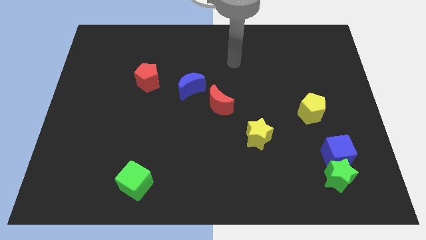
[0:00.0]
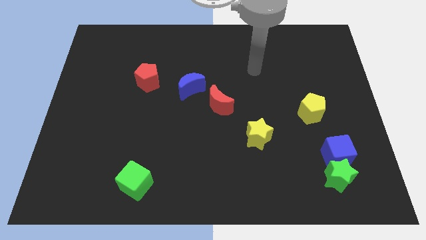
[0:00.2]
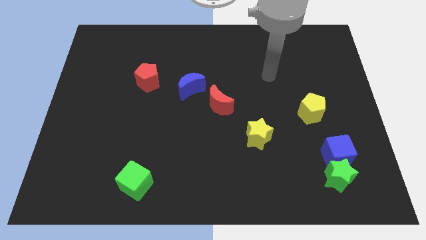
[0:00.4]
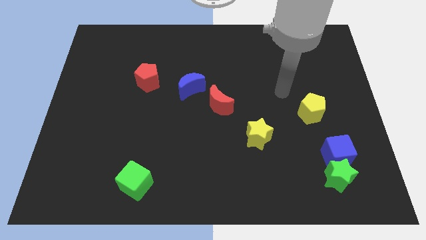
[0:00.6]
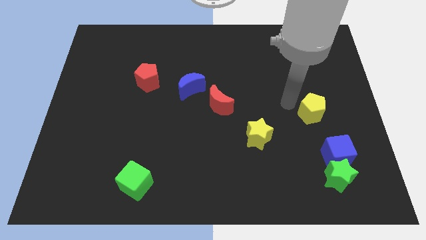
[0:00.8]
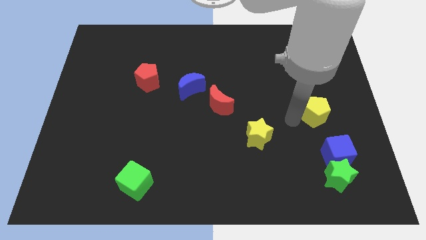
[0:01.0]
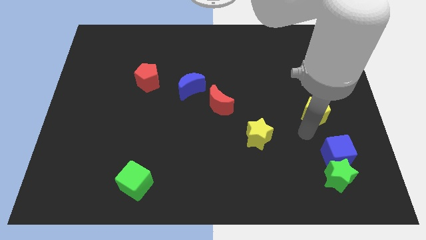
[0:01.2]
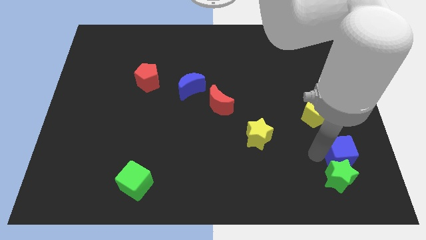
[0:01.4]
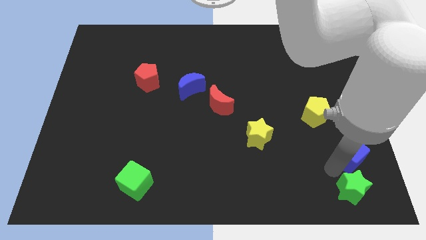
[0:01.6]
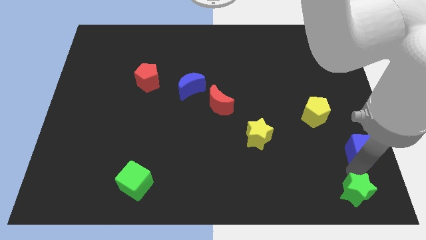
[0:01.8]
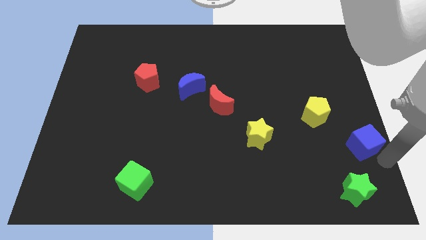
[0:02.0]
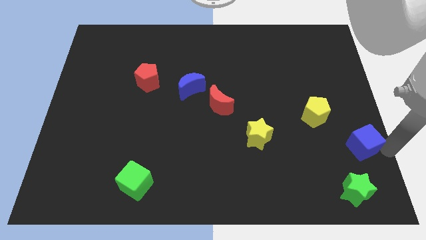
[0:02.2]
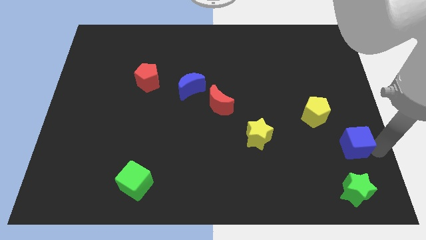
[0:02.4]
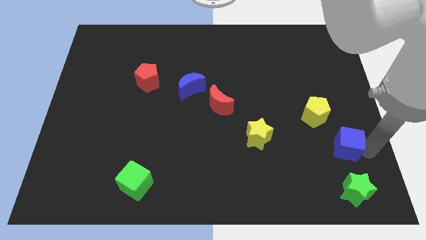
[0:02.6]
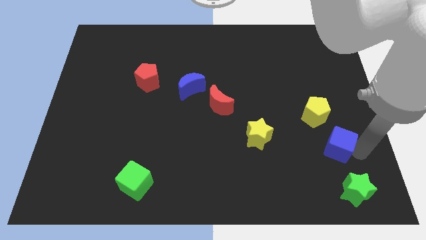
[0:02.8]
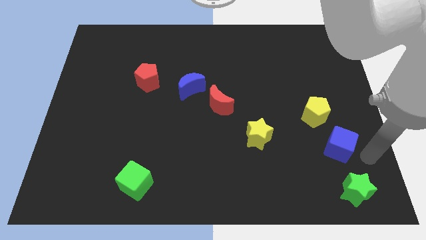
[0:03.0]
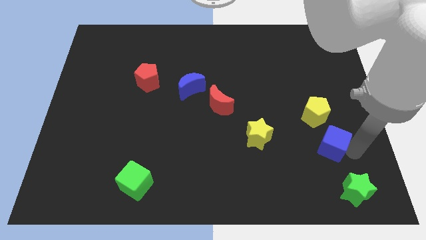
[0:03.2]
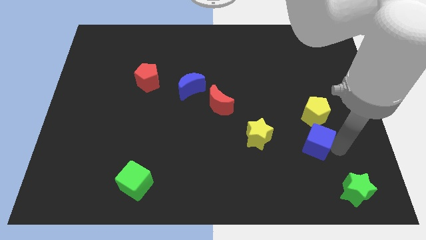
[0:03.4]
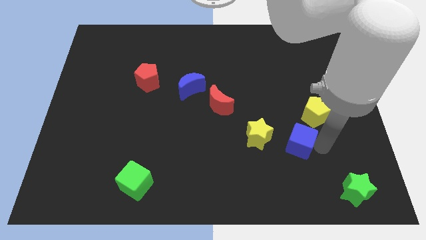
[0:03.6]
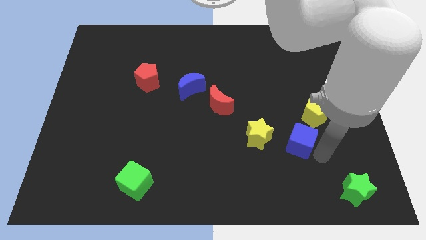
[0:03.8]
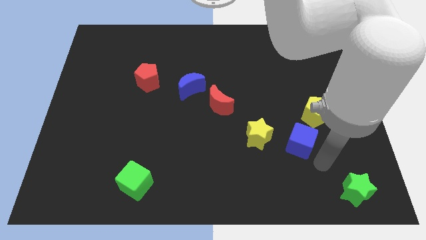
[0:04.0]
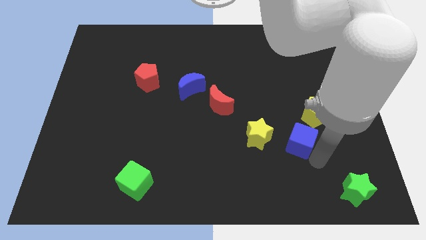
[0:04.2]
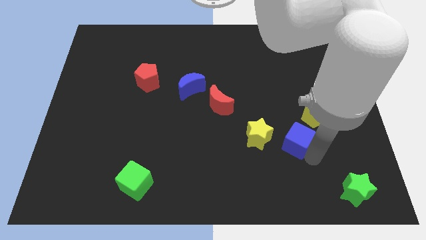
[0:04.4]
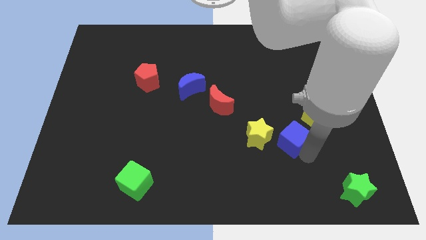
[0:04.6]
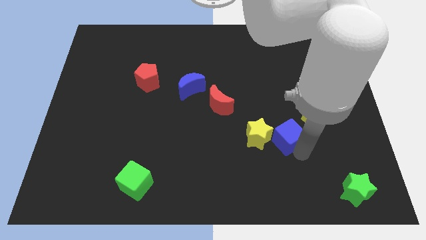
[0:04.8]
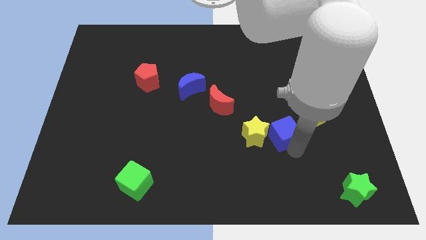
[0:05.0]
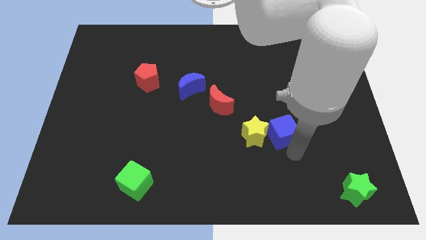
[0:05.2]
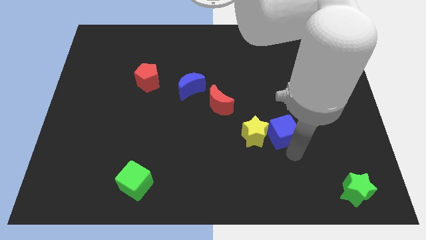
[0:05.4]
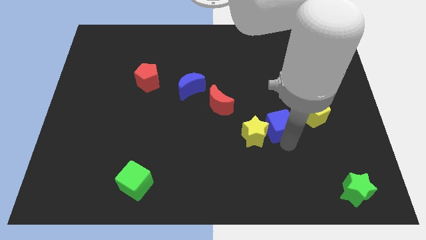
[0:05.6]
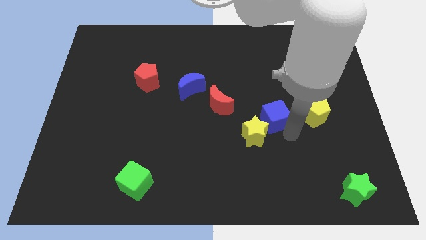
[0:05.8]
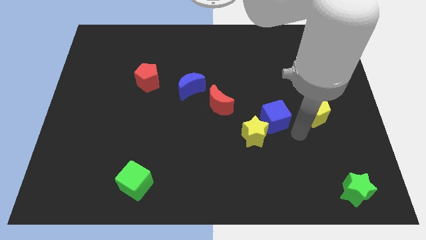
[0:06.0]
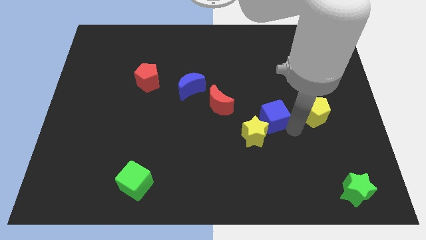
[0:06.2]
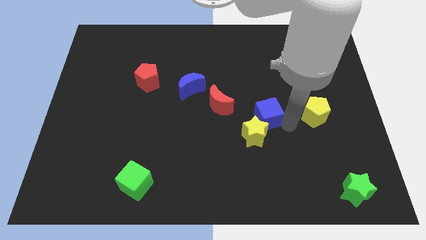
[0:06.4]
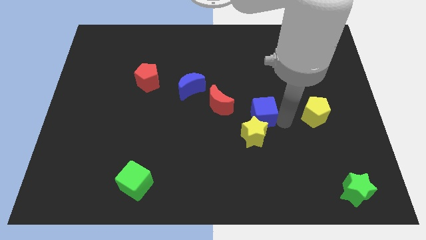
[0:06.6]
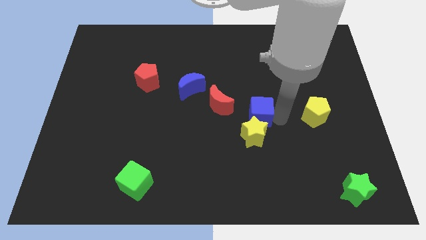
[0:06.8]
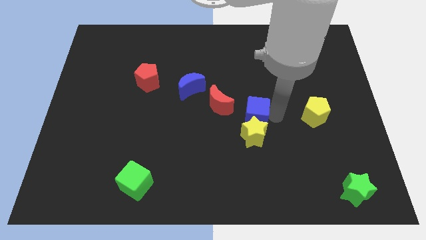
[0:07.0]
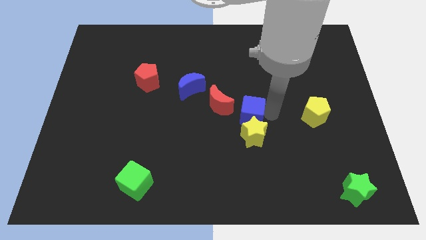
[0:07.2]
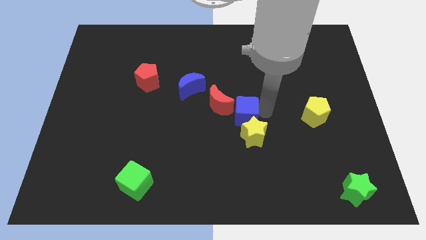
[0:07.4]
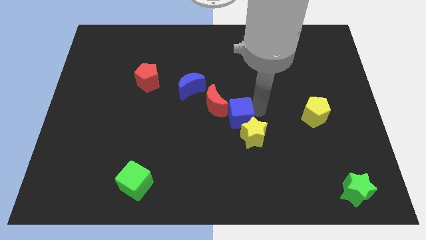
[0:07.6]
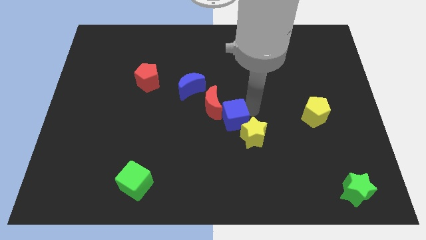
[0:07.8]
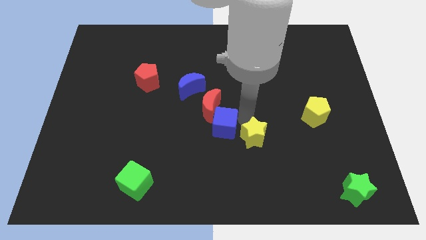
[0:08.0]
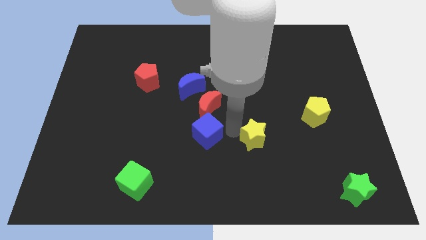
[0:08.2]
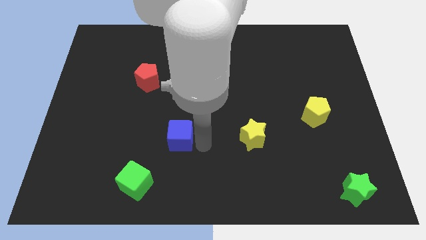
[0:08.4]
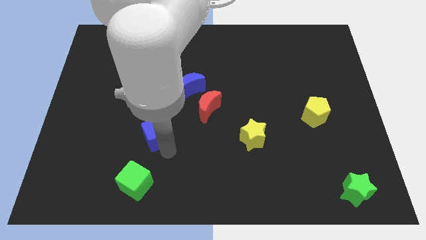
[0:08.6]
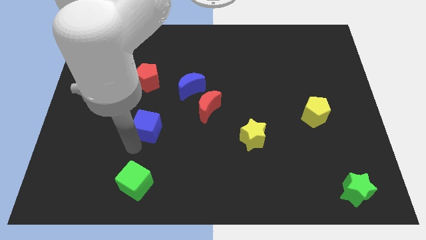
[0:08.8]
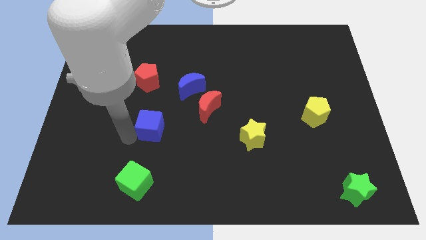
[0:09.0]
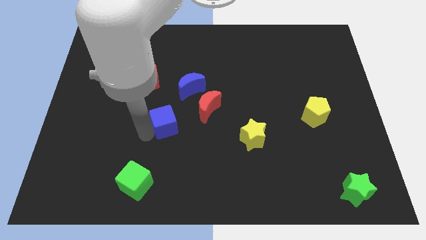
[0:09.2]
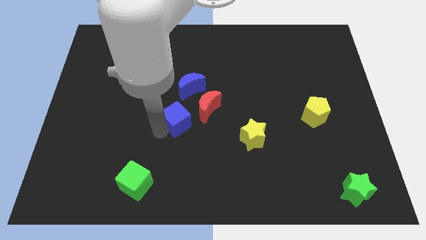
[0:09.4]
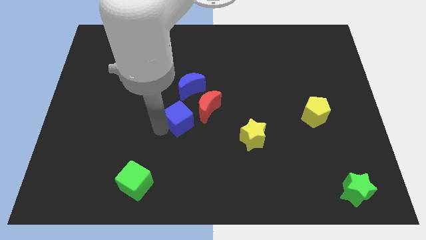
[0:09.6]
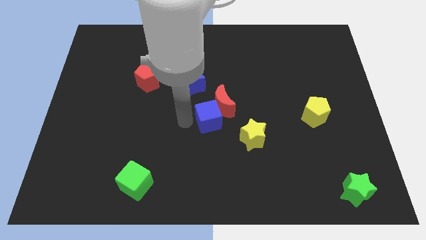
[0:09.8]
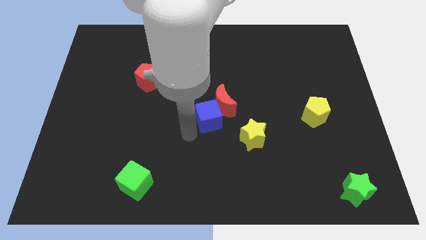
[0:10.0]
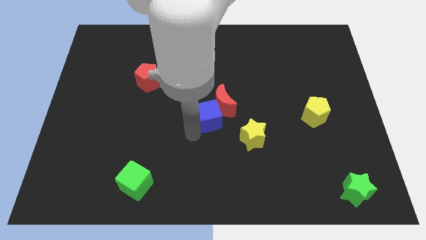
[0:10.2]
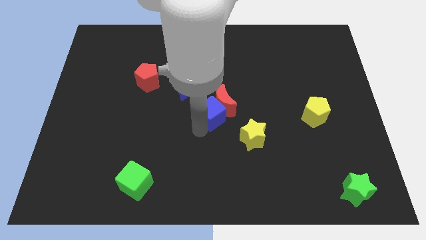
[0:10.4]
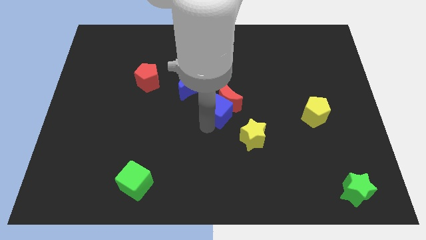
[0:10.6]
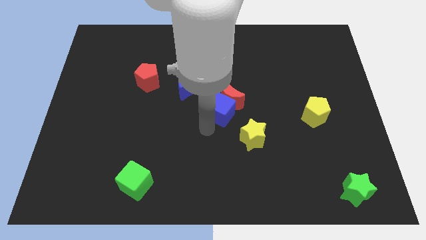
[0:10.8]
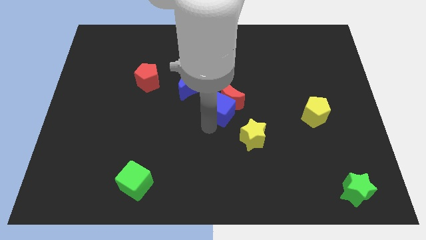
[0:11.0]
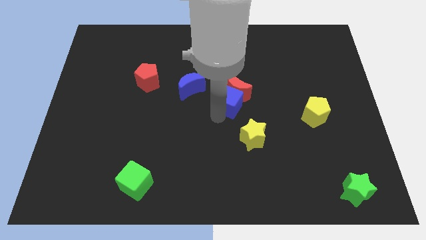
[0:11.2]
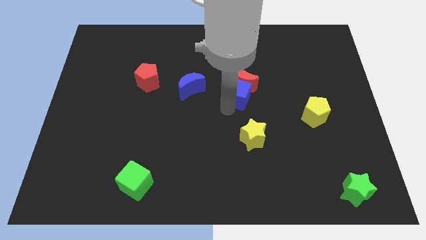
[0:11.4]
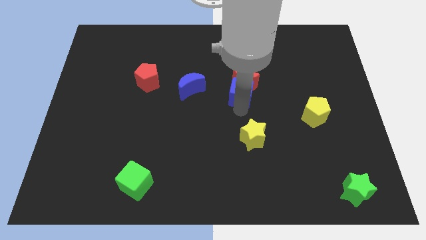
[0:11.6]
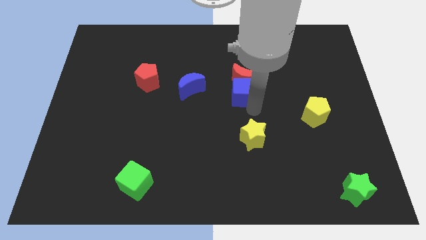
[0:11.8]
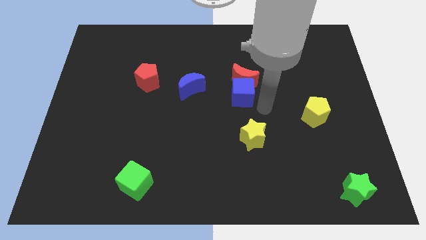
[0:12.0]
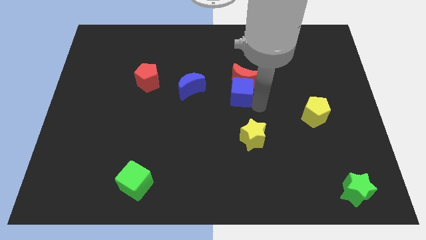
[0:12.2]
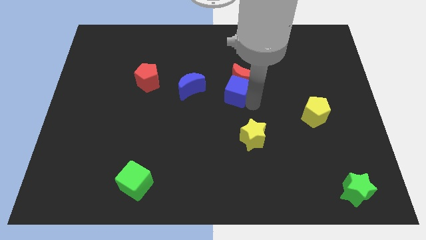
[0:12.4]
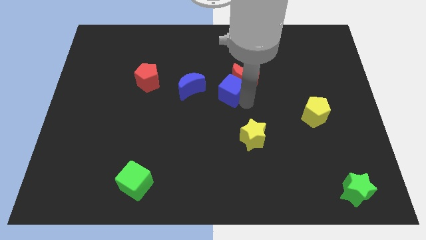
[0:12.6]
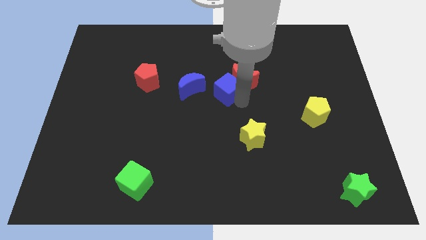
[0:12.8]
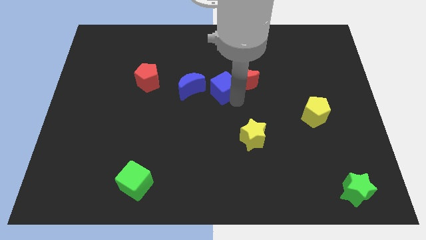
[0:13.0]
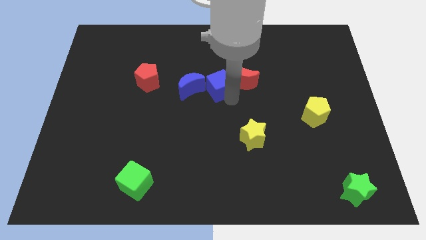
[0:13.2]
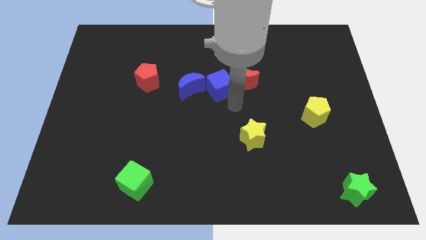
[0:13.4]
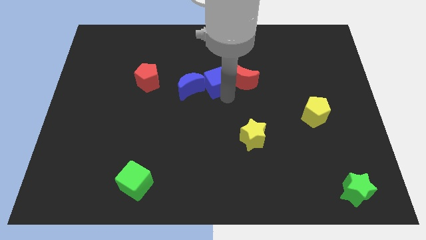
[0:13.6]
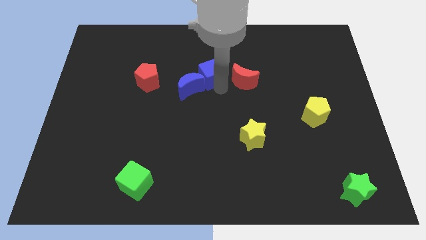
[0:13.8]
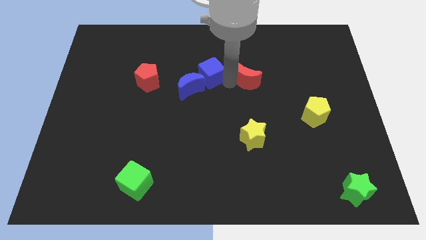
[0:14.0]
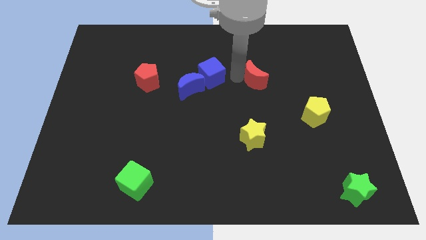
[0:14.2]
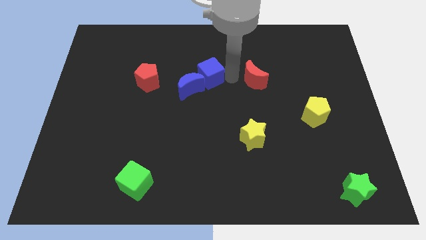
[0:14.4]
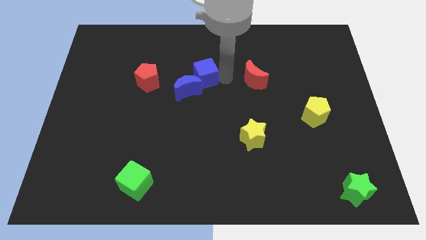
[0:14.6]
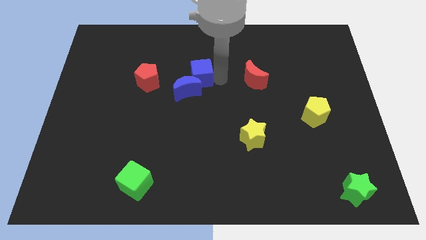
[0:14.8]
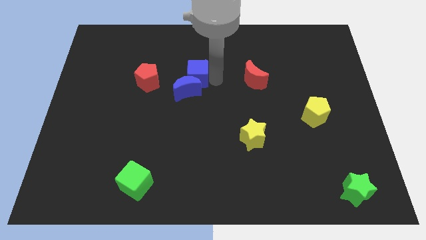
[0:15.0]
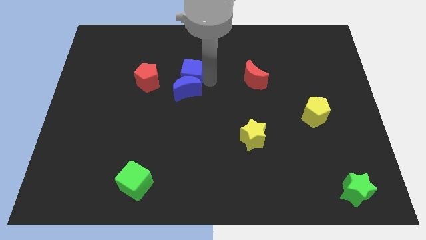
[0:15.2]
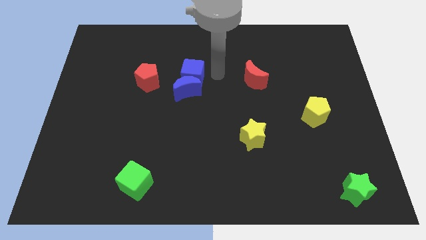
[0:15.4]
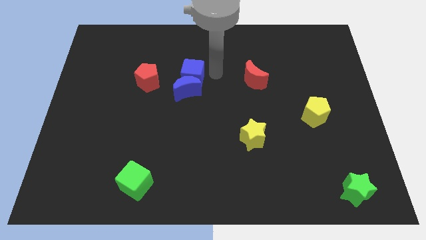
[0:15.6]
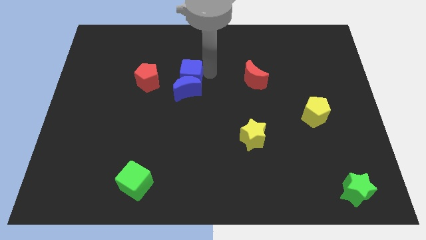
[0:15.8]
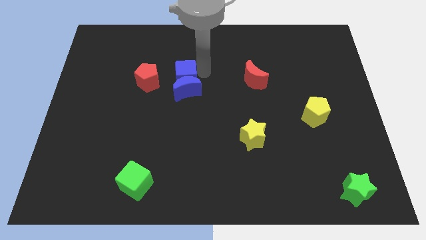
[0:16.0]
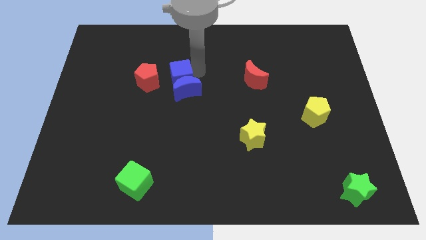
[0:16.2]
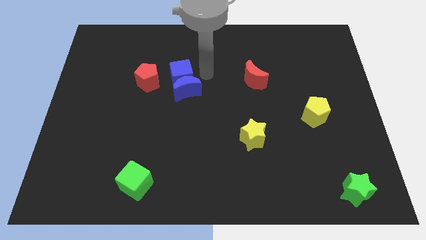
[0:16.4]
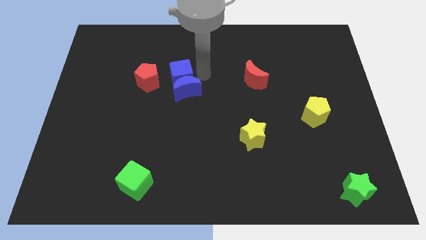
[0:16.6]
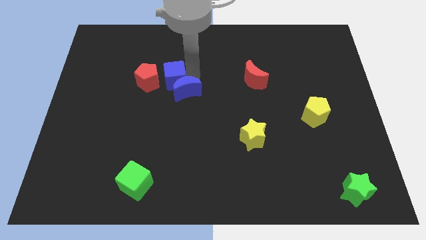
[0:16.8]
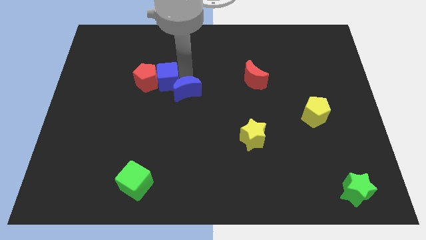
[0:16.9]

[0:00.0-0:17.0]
push the blue cube to the red pentagon
